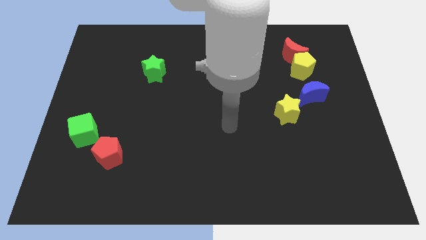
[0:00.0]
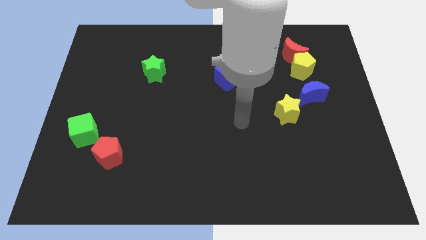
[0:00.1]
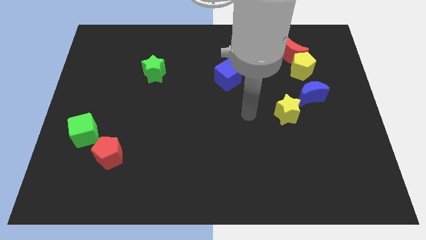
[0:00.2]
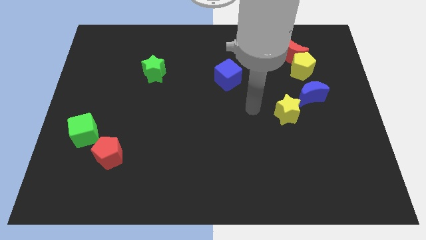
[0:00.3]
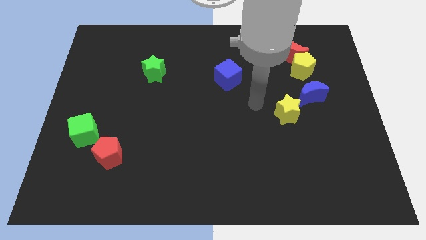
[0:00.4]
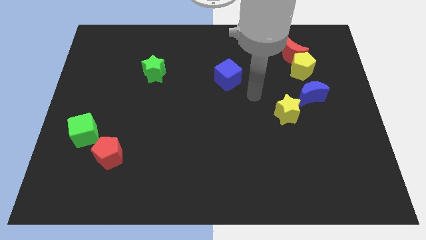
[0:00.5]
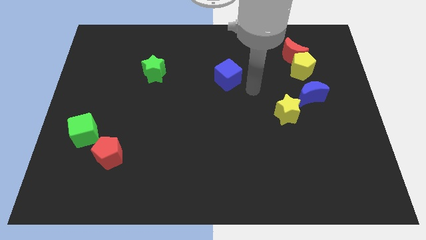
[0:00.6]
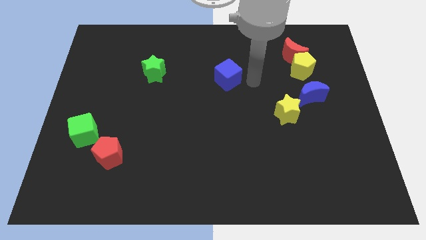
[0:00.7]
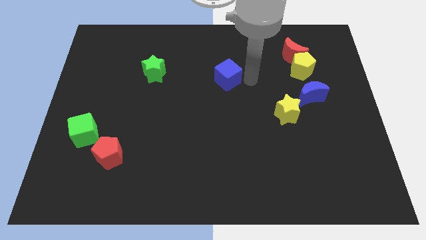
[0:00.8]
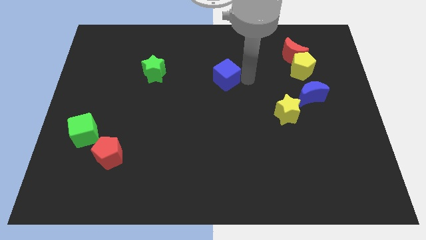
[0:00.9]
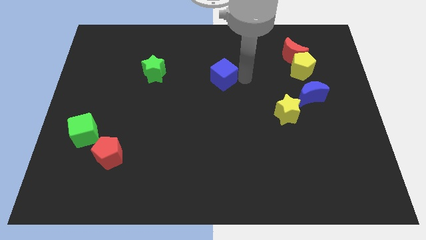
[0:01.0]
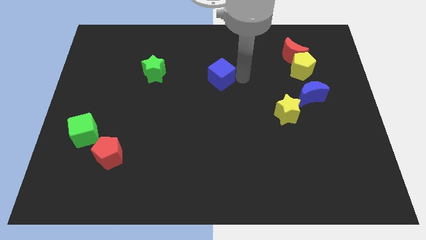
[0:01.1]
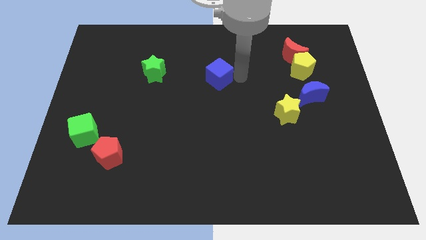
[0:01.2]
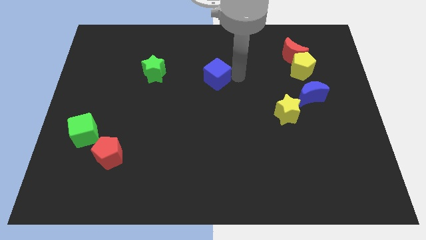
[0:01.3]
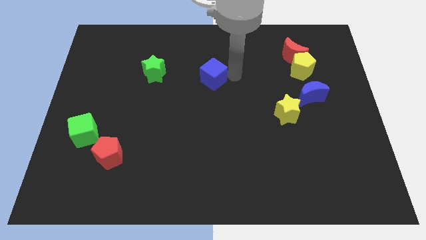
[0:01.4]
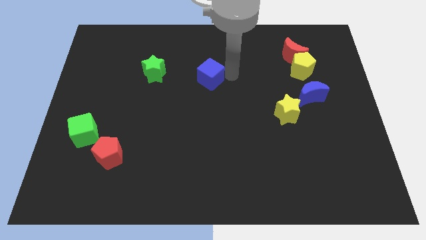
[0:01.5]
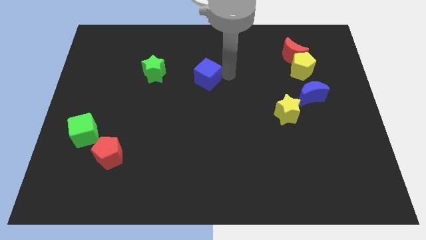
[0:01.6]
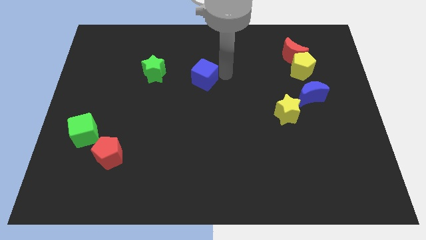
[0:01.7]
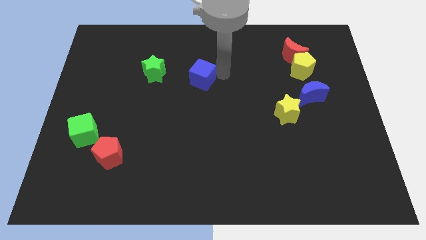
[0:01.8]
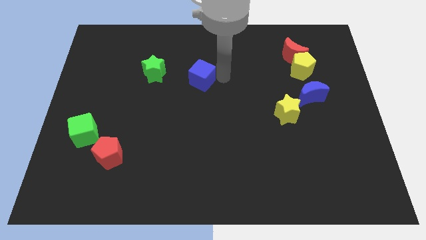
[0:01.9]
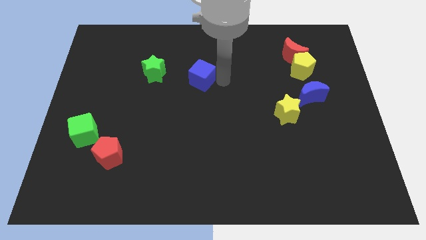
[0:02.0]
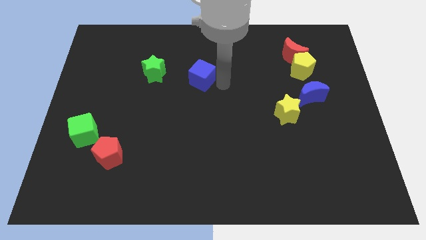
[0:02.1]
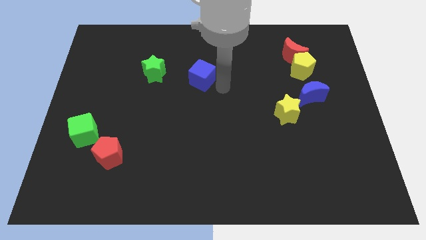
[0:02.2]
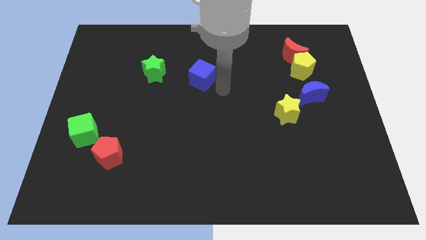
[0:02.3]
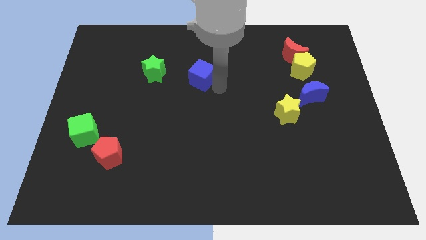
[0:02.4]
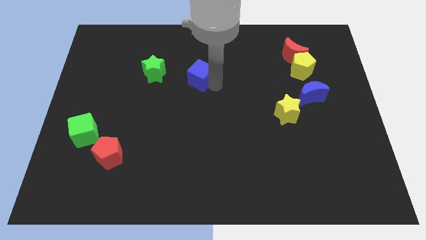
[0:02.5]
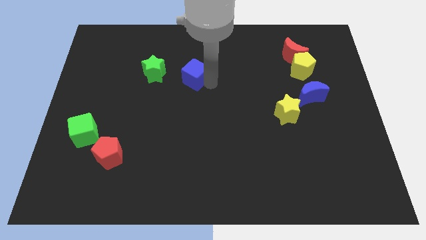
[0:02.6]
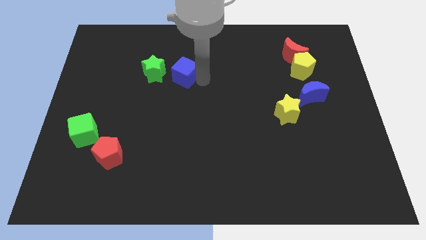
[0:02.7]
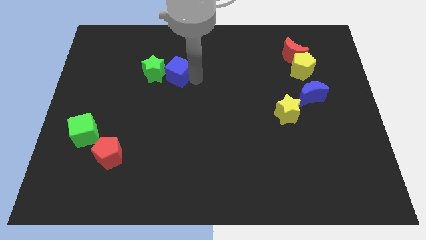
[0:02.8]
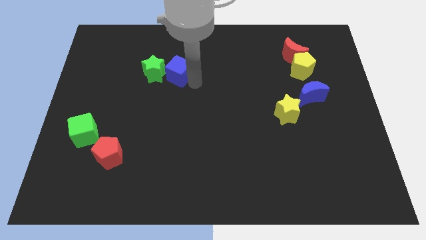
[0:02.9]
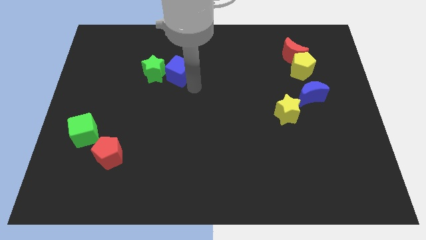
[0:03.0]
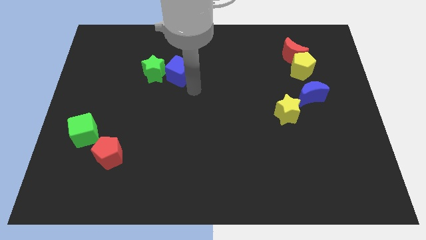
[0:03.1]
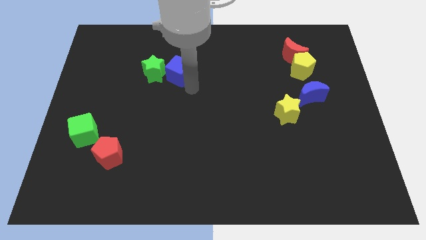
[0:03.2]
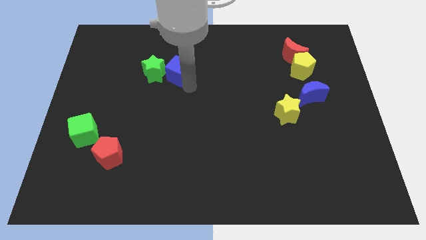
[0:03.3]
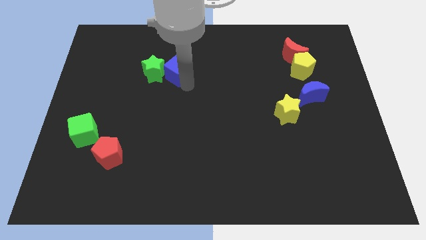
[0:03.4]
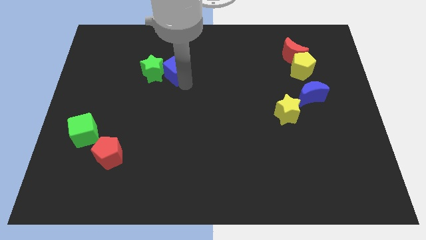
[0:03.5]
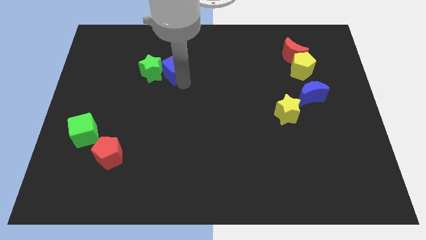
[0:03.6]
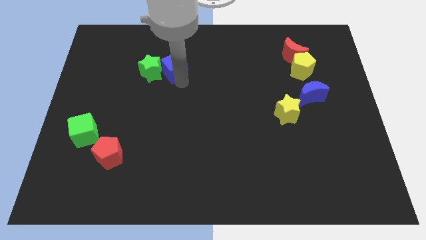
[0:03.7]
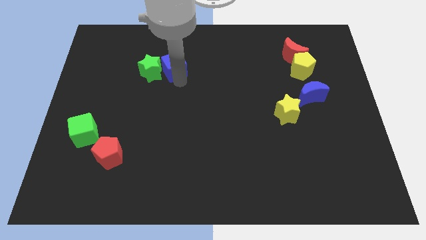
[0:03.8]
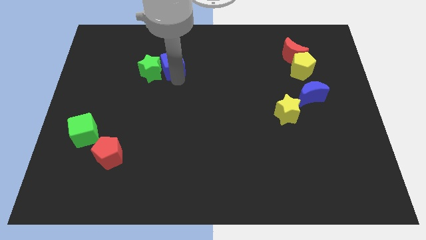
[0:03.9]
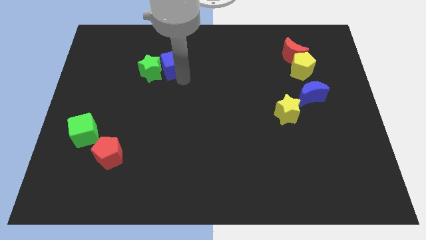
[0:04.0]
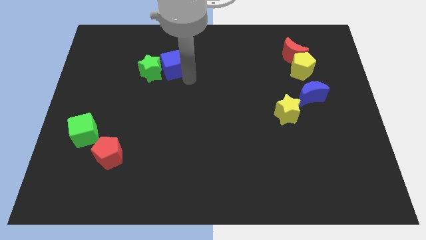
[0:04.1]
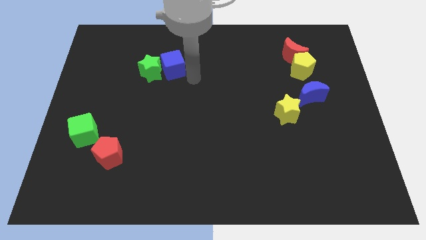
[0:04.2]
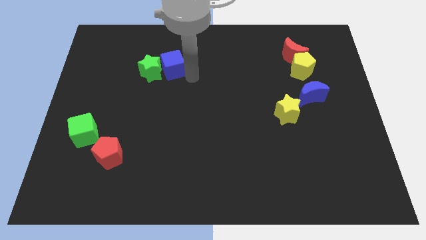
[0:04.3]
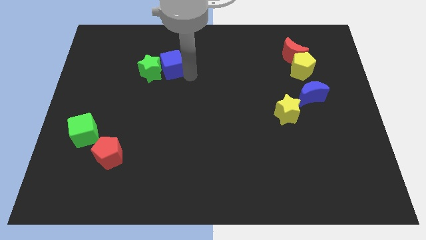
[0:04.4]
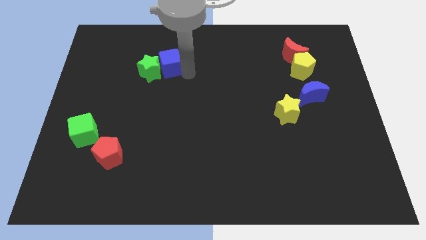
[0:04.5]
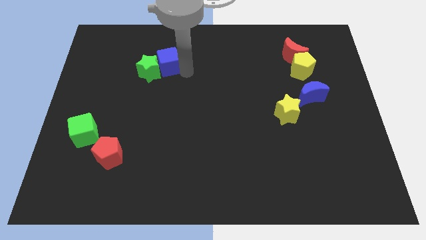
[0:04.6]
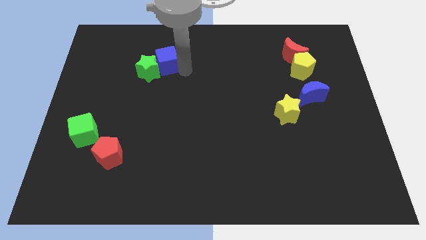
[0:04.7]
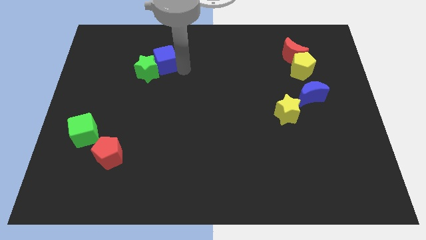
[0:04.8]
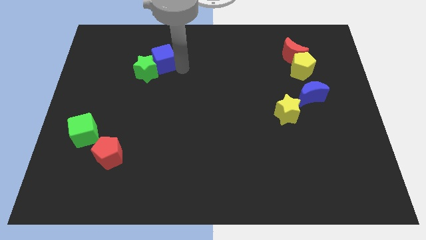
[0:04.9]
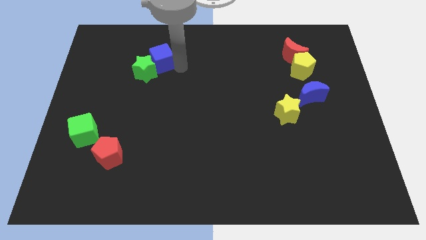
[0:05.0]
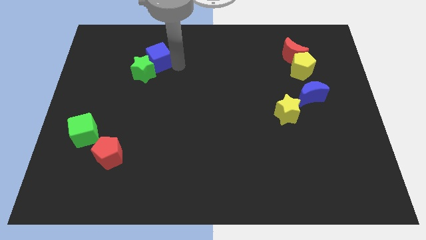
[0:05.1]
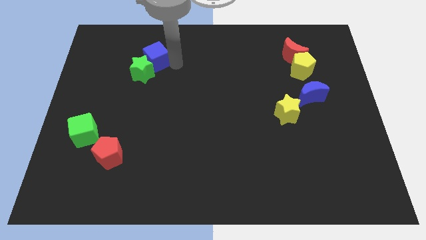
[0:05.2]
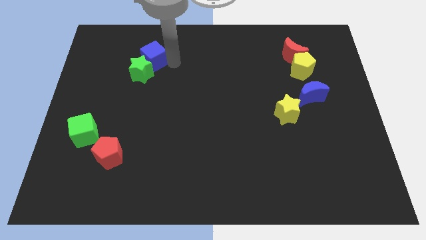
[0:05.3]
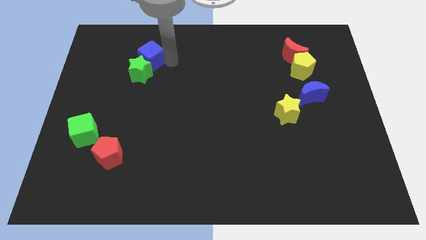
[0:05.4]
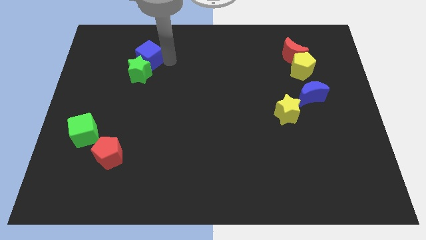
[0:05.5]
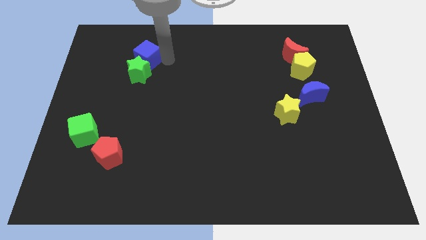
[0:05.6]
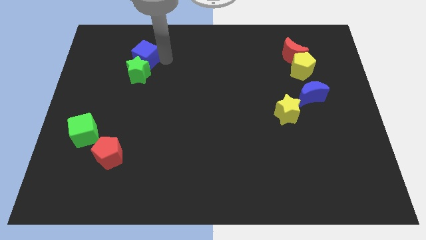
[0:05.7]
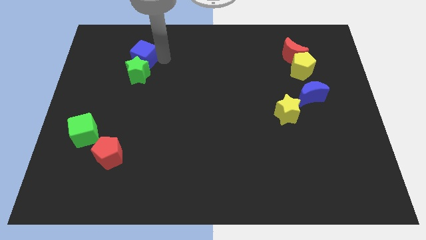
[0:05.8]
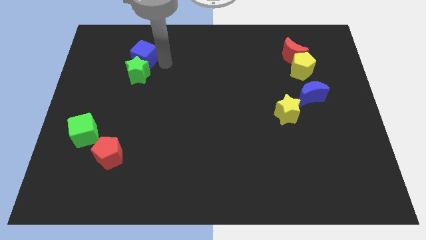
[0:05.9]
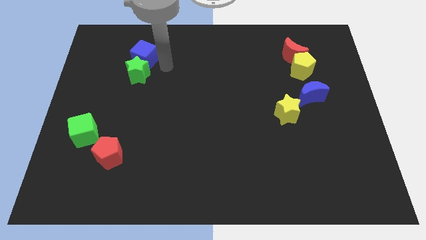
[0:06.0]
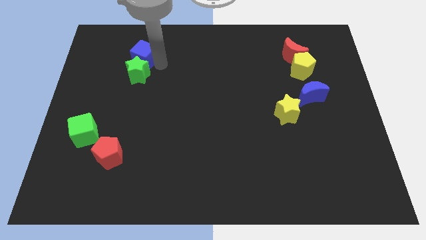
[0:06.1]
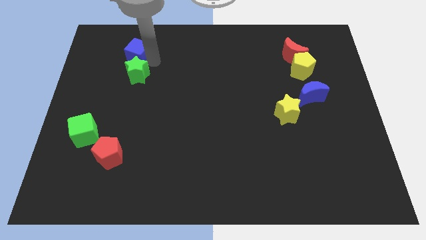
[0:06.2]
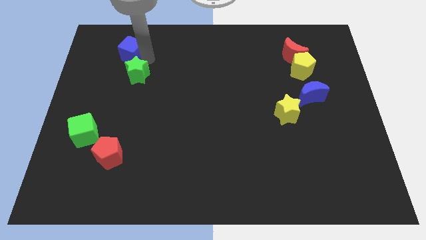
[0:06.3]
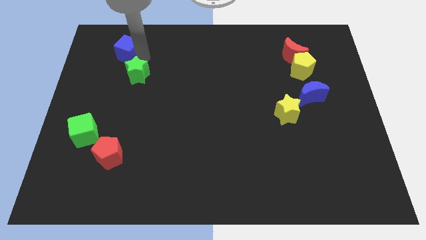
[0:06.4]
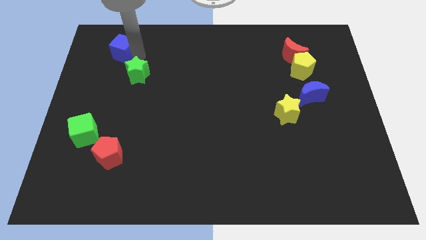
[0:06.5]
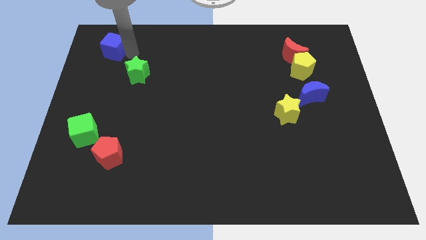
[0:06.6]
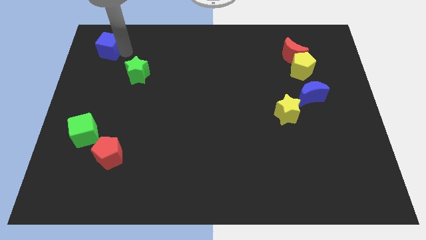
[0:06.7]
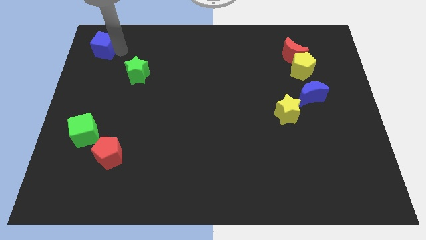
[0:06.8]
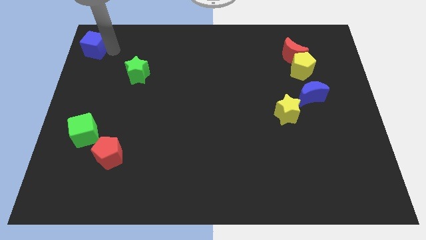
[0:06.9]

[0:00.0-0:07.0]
put the blue cube to the top left of the board

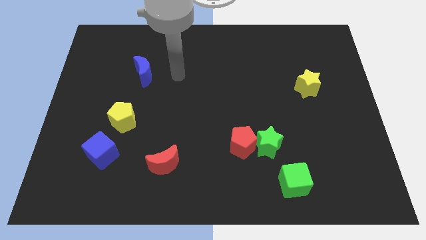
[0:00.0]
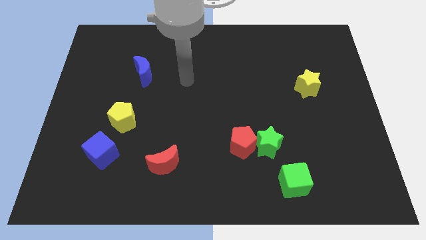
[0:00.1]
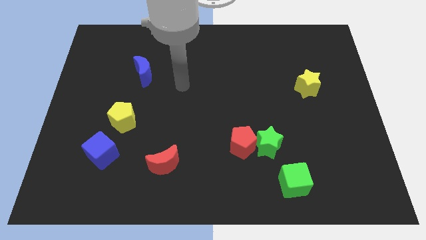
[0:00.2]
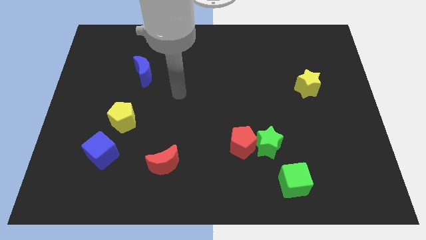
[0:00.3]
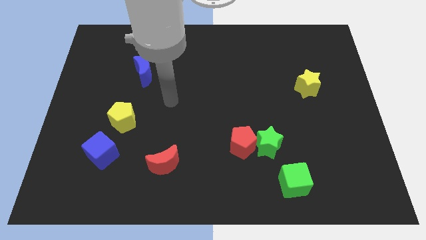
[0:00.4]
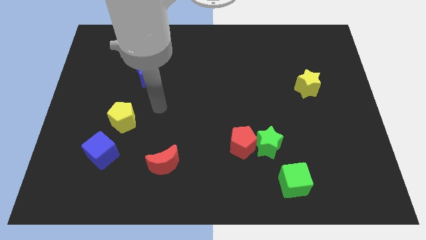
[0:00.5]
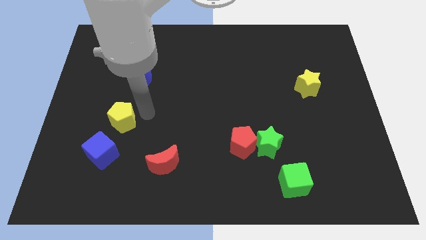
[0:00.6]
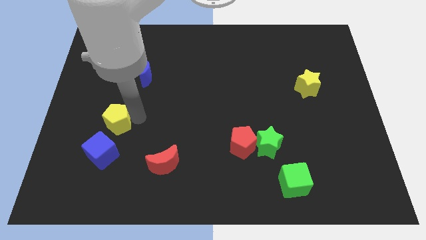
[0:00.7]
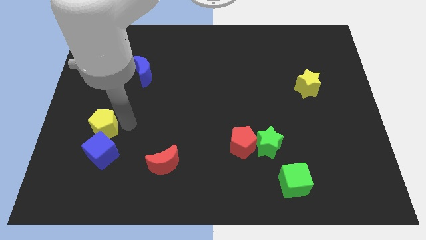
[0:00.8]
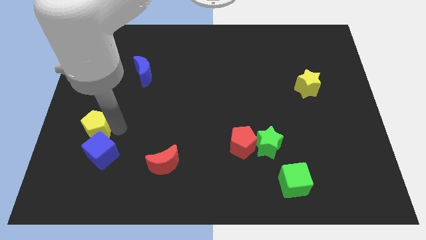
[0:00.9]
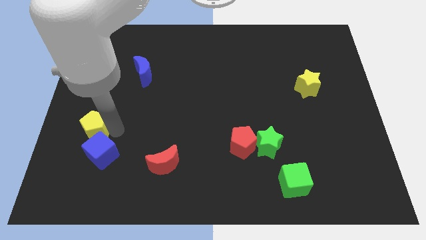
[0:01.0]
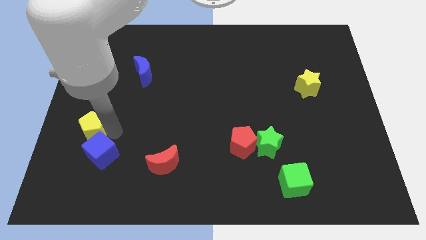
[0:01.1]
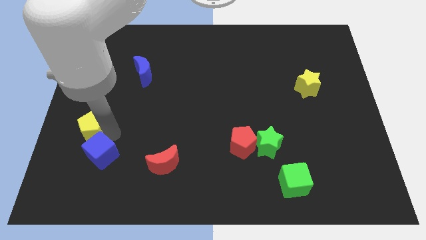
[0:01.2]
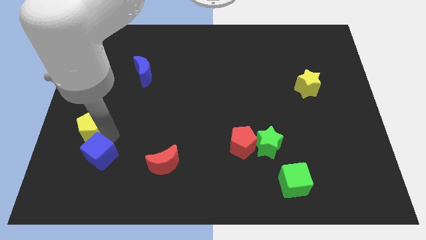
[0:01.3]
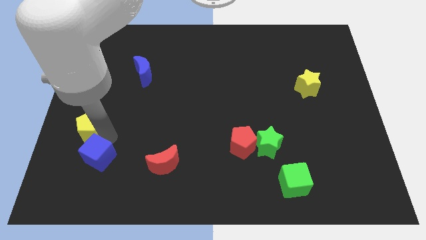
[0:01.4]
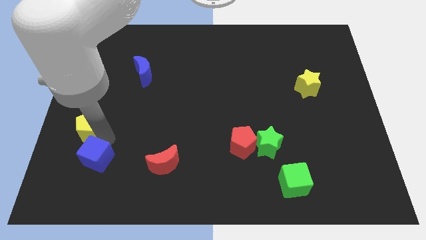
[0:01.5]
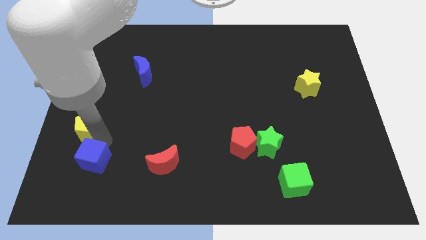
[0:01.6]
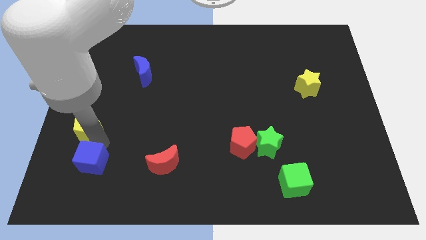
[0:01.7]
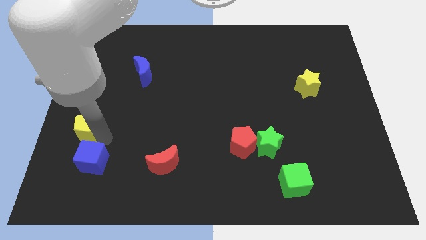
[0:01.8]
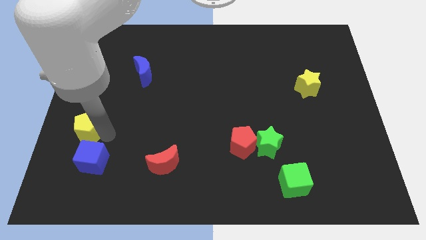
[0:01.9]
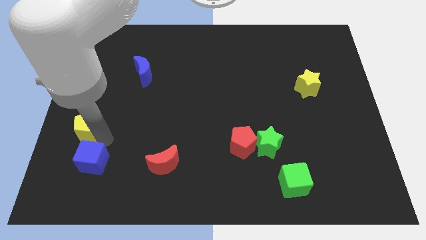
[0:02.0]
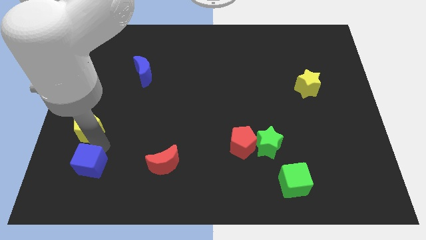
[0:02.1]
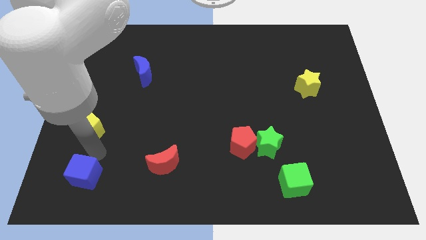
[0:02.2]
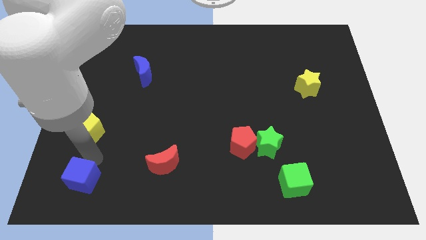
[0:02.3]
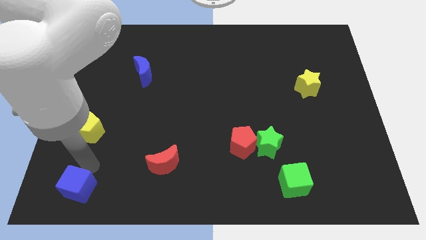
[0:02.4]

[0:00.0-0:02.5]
put the blue cube to the bottom left of the board
